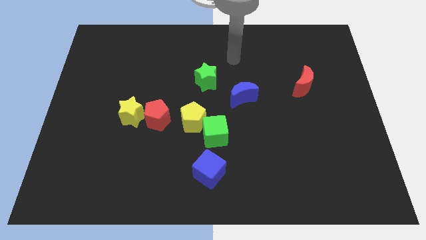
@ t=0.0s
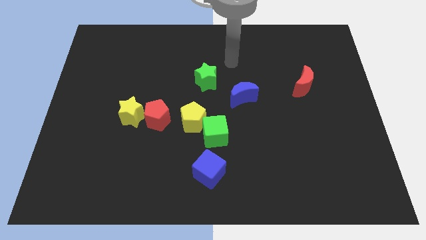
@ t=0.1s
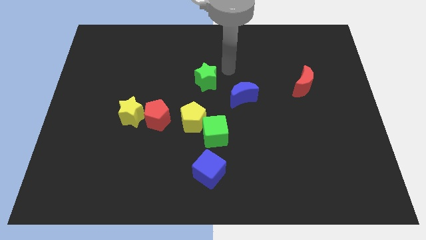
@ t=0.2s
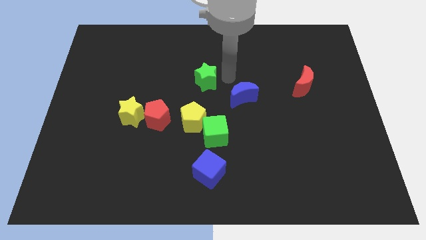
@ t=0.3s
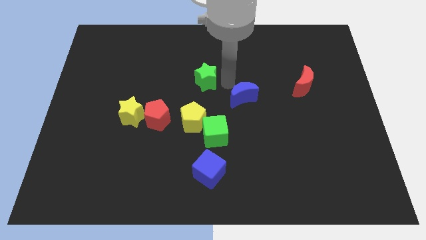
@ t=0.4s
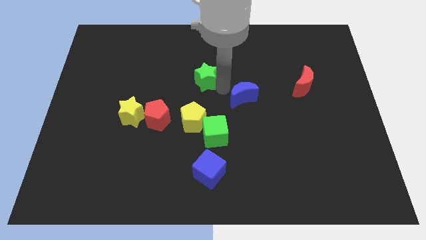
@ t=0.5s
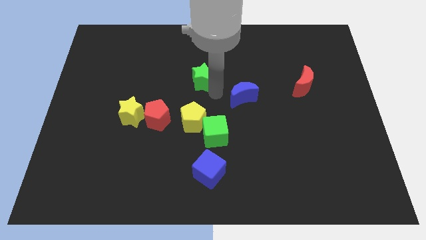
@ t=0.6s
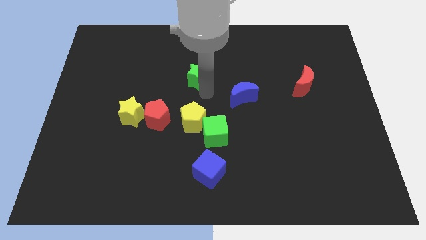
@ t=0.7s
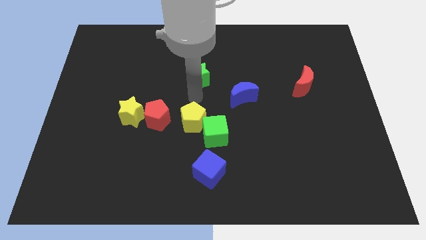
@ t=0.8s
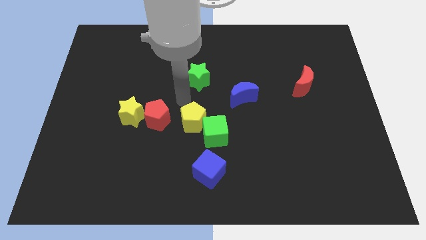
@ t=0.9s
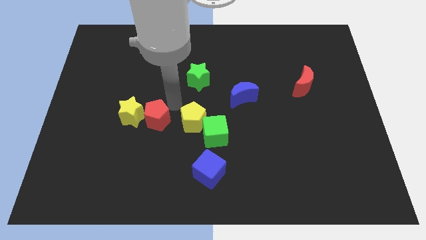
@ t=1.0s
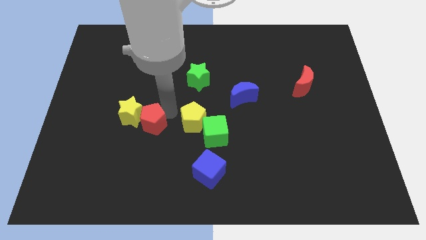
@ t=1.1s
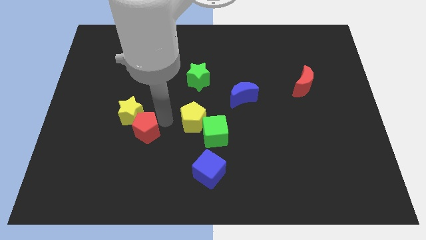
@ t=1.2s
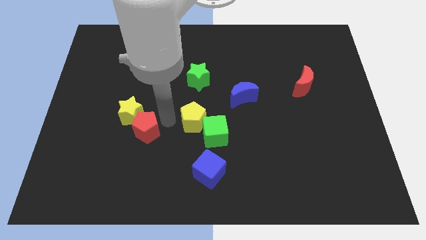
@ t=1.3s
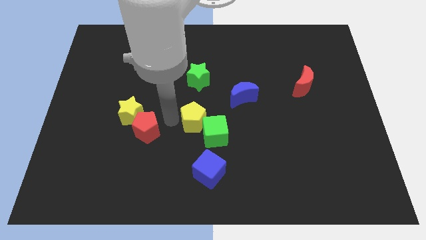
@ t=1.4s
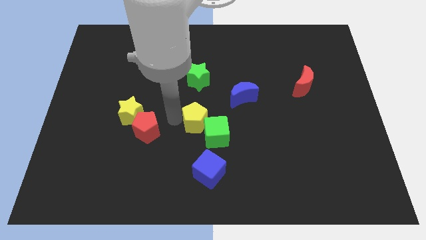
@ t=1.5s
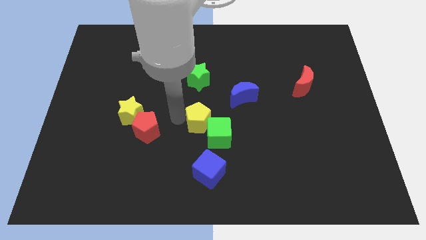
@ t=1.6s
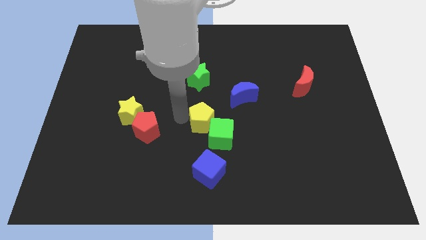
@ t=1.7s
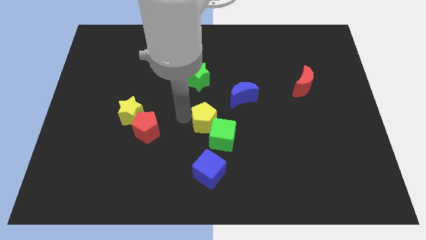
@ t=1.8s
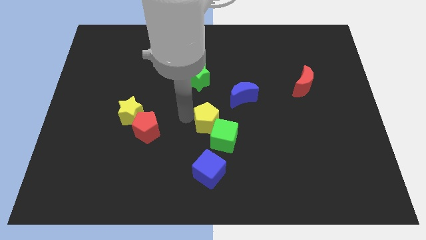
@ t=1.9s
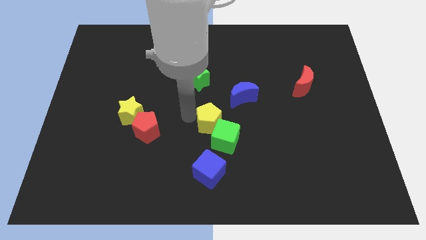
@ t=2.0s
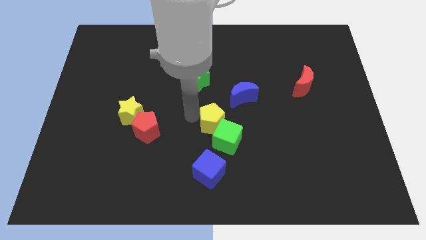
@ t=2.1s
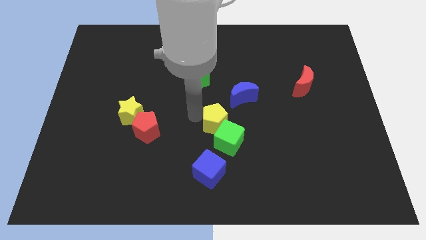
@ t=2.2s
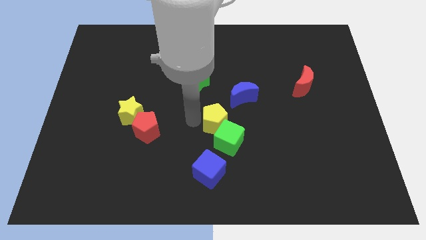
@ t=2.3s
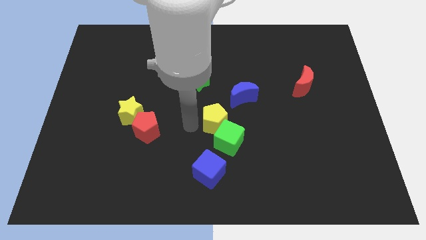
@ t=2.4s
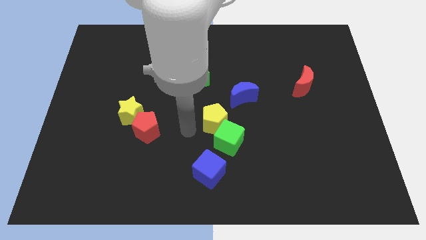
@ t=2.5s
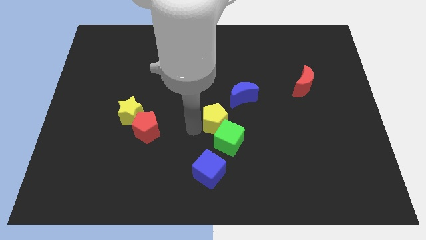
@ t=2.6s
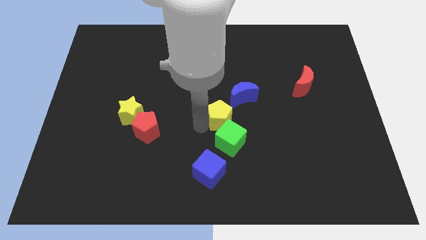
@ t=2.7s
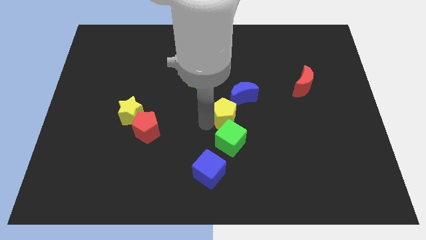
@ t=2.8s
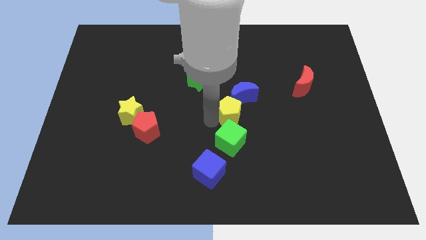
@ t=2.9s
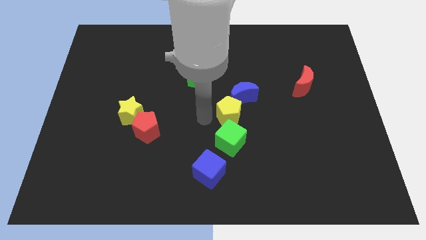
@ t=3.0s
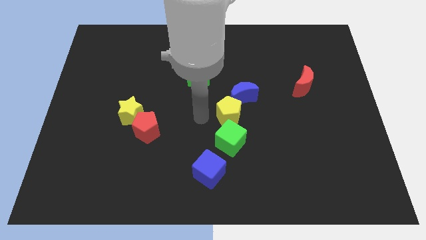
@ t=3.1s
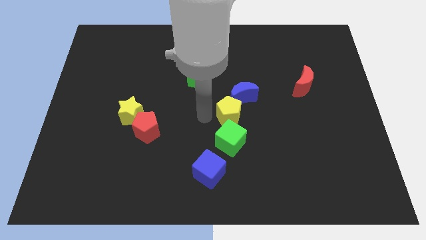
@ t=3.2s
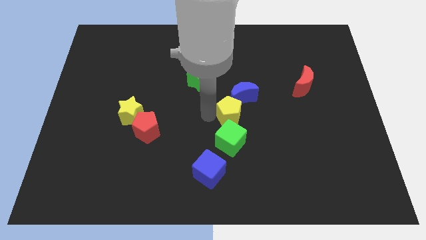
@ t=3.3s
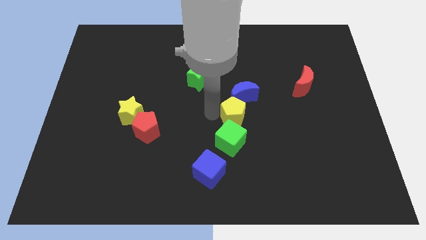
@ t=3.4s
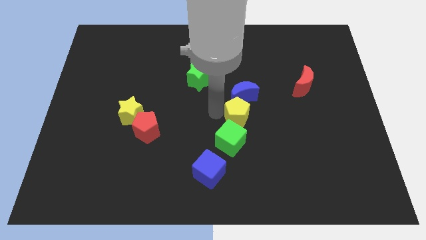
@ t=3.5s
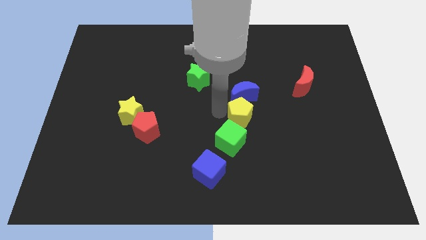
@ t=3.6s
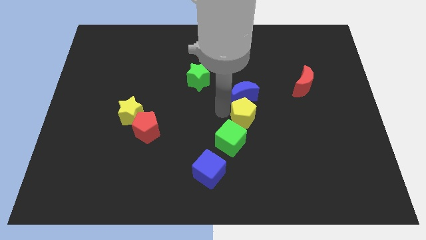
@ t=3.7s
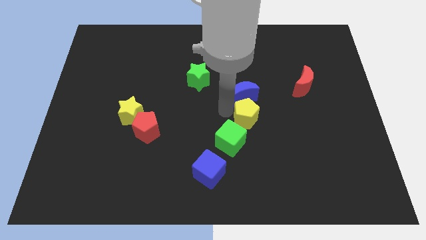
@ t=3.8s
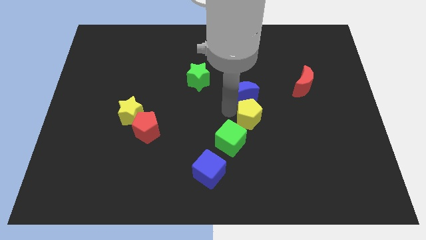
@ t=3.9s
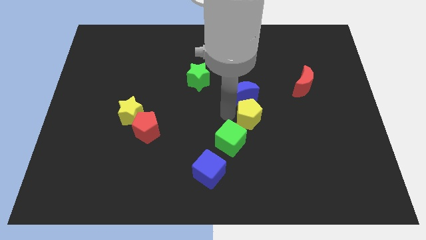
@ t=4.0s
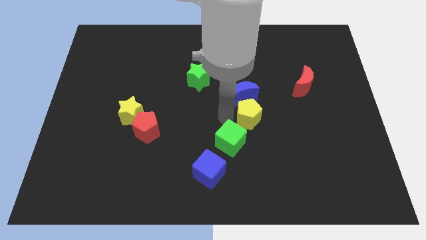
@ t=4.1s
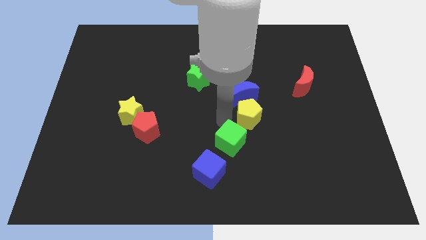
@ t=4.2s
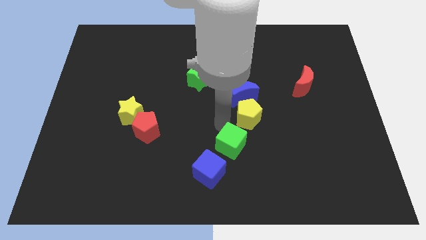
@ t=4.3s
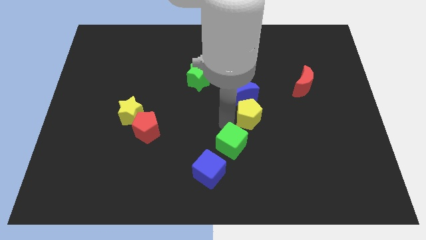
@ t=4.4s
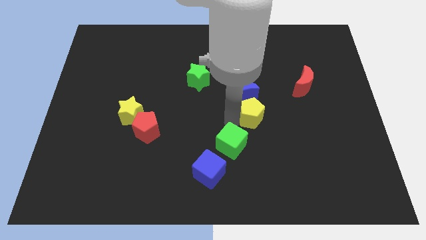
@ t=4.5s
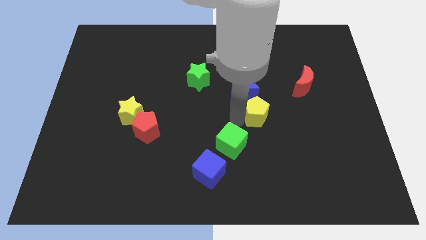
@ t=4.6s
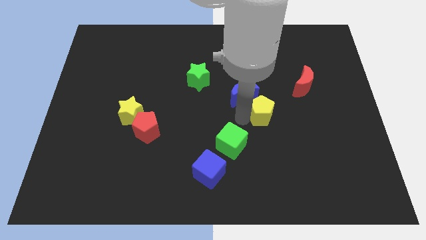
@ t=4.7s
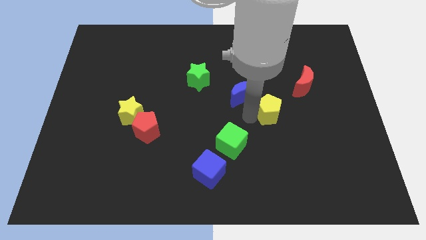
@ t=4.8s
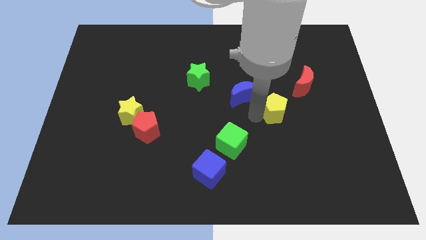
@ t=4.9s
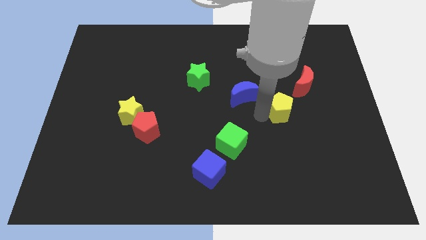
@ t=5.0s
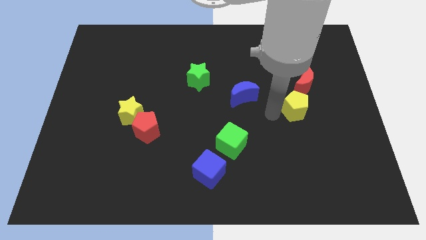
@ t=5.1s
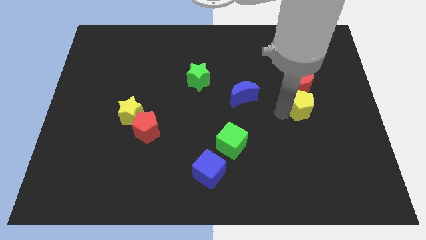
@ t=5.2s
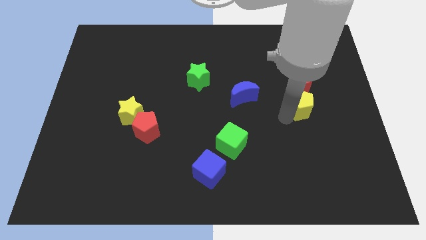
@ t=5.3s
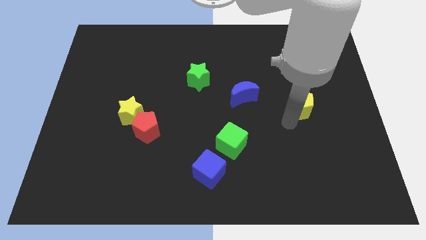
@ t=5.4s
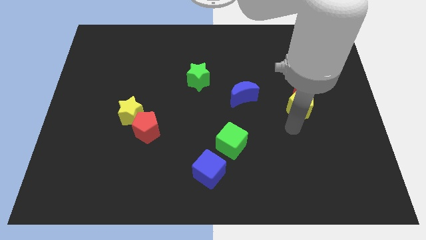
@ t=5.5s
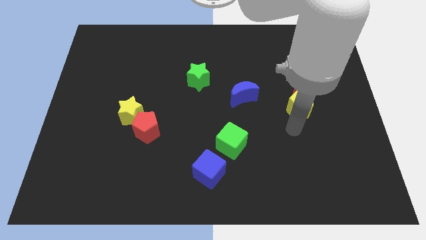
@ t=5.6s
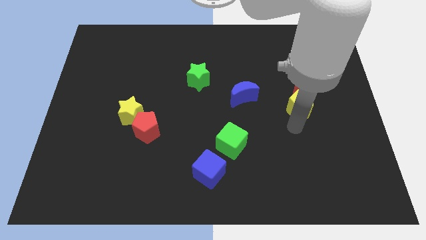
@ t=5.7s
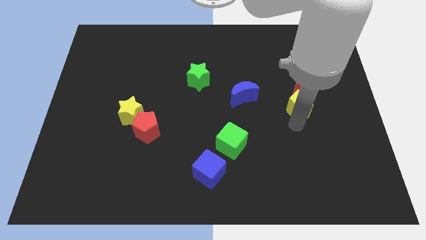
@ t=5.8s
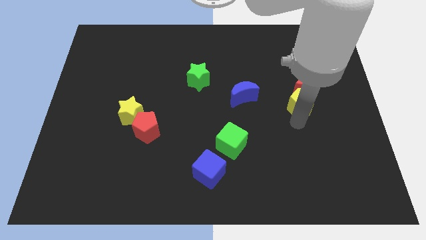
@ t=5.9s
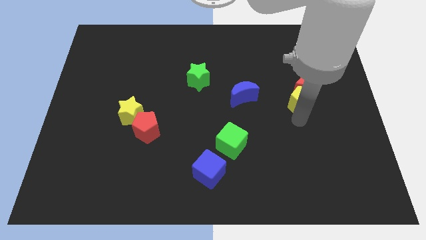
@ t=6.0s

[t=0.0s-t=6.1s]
slide the yellow pentagon to the red moon

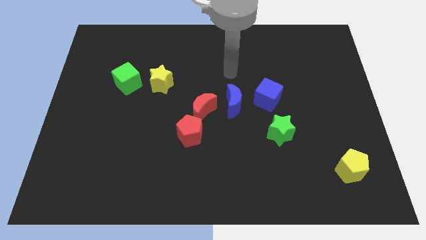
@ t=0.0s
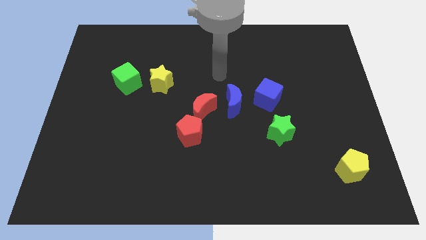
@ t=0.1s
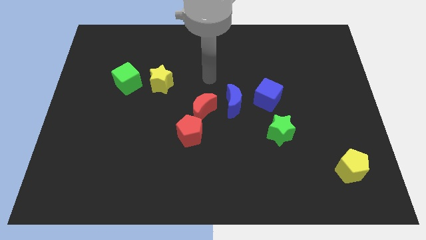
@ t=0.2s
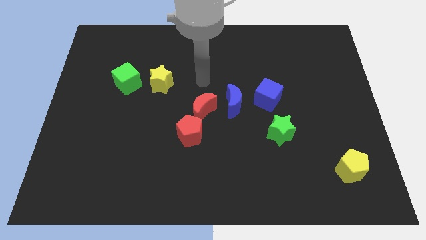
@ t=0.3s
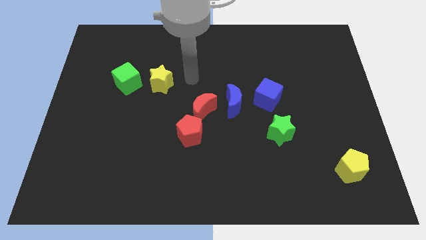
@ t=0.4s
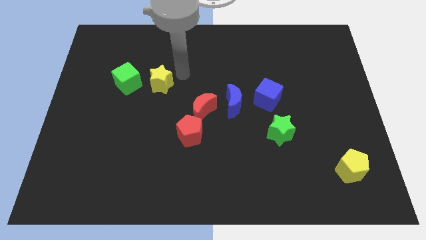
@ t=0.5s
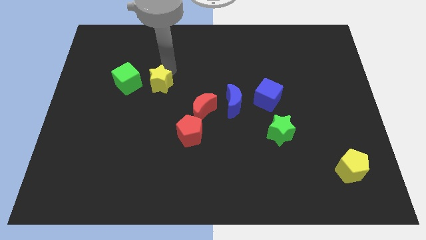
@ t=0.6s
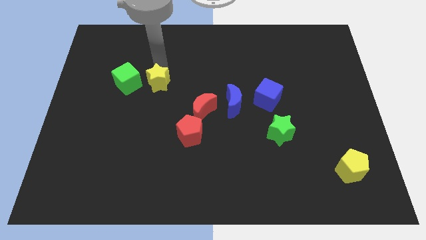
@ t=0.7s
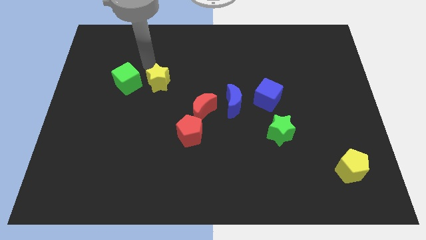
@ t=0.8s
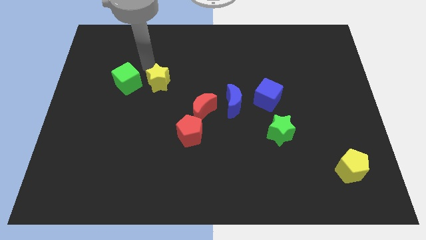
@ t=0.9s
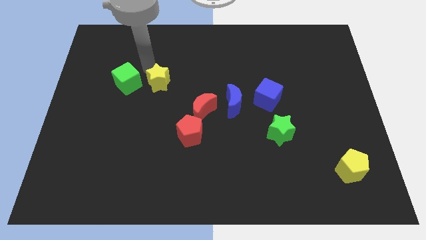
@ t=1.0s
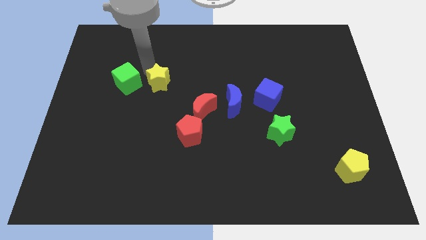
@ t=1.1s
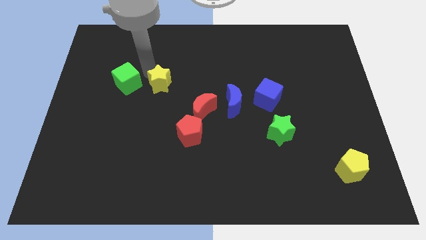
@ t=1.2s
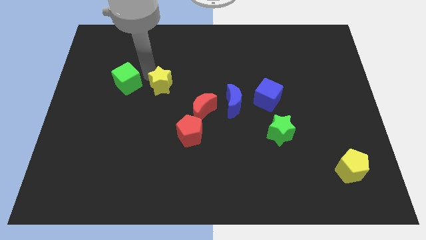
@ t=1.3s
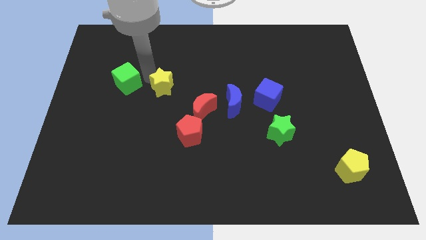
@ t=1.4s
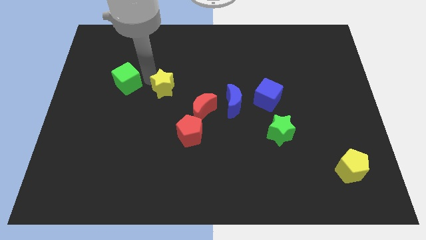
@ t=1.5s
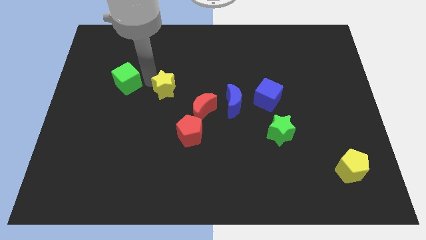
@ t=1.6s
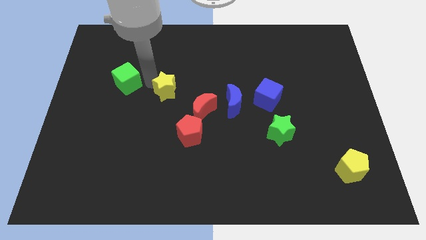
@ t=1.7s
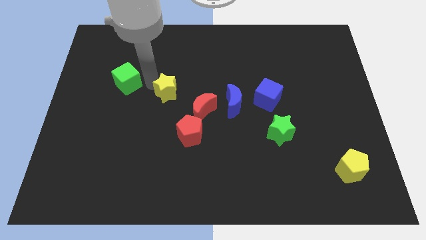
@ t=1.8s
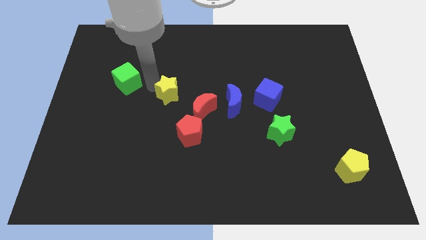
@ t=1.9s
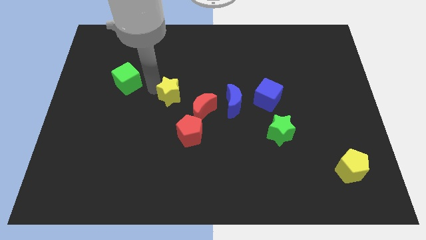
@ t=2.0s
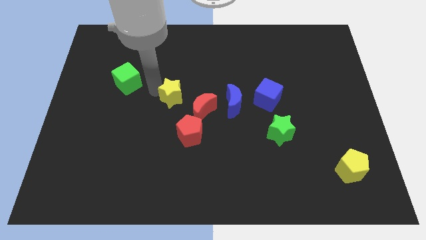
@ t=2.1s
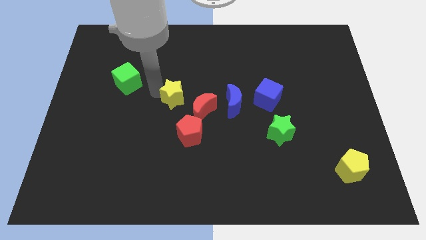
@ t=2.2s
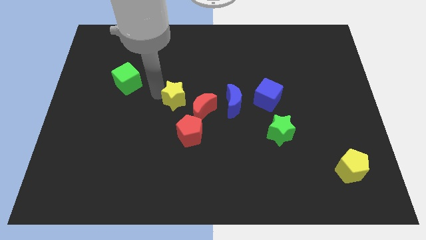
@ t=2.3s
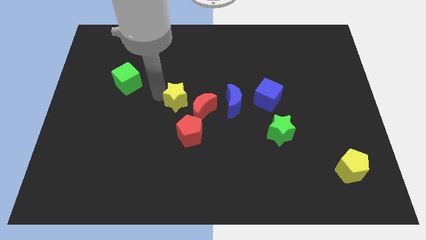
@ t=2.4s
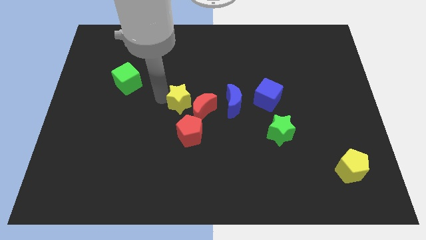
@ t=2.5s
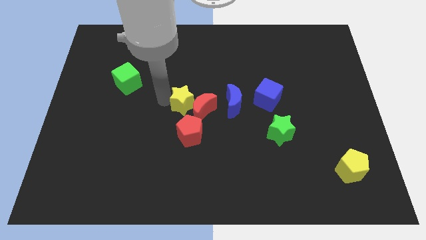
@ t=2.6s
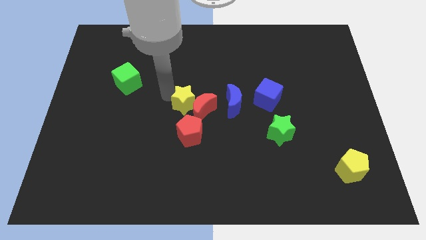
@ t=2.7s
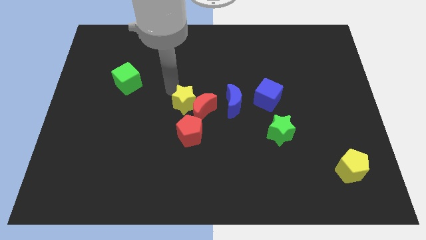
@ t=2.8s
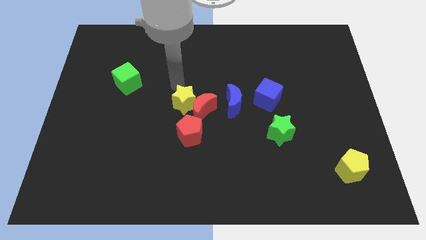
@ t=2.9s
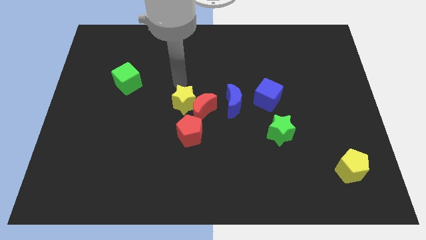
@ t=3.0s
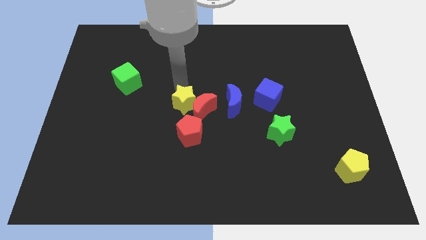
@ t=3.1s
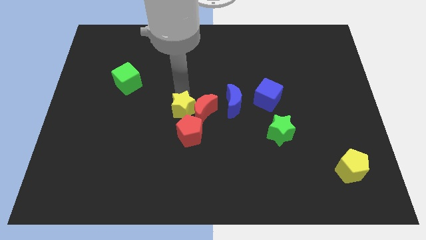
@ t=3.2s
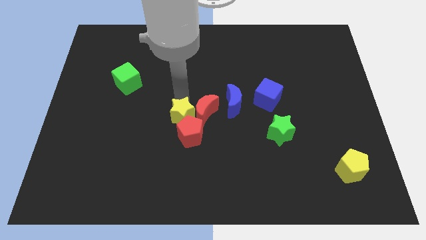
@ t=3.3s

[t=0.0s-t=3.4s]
put the yellow star towards the red pentagon
